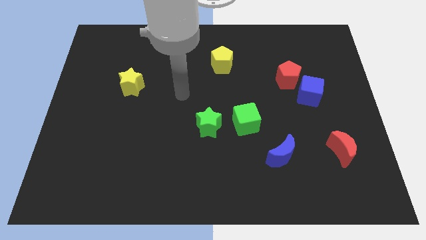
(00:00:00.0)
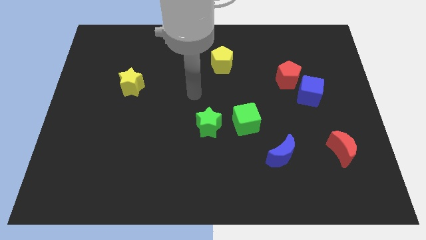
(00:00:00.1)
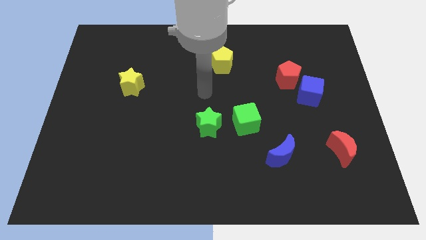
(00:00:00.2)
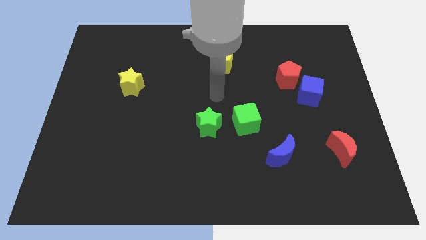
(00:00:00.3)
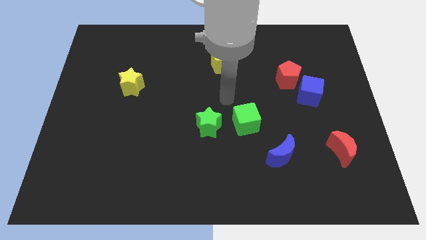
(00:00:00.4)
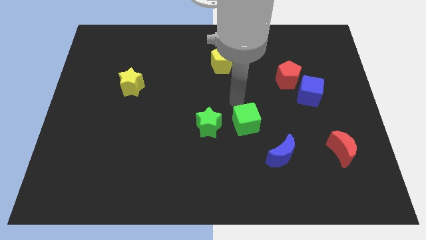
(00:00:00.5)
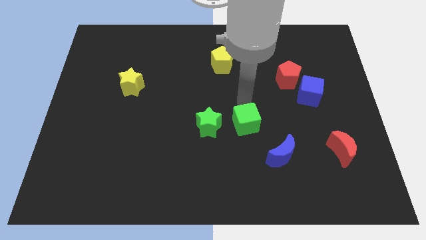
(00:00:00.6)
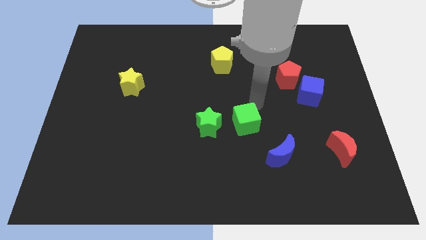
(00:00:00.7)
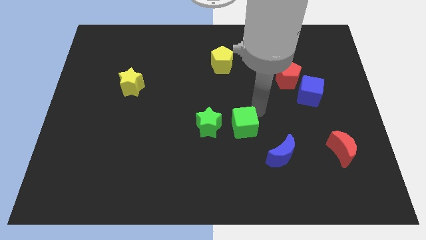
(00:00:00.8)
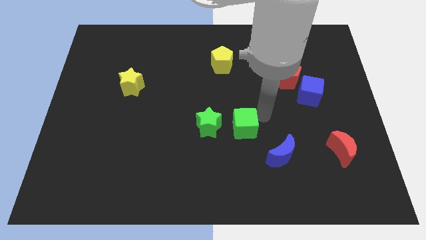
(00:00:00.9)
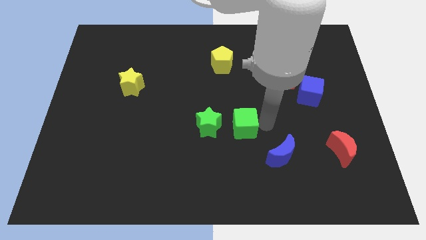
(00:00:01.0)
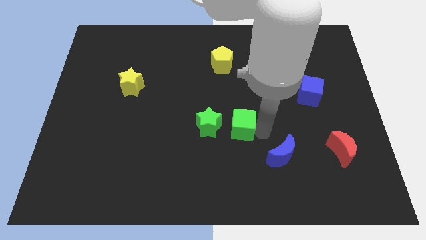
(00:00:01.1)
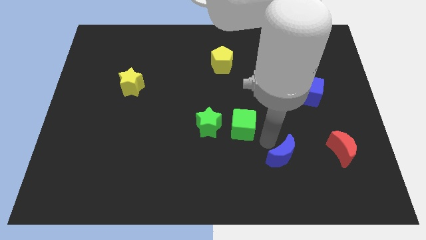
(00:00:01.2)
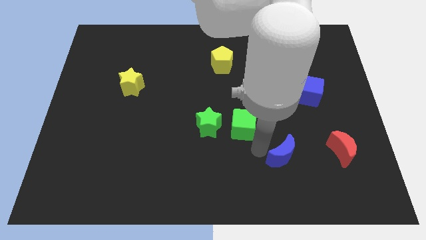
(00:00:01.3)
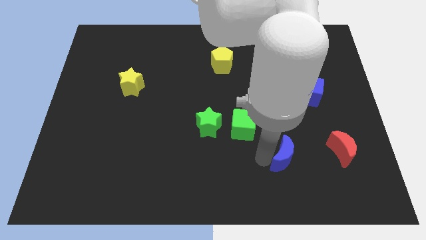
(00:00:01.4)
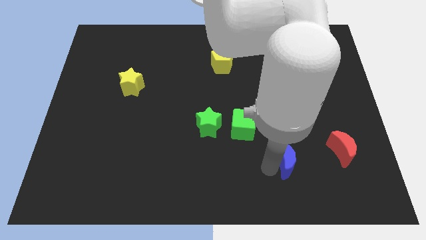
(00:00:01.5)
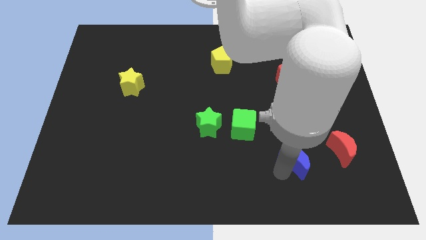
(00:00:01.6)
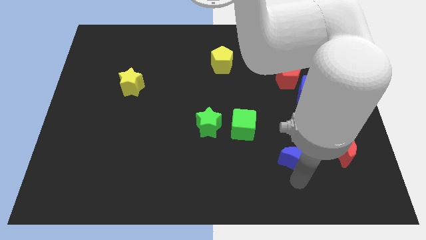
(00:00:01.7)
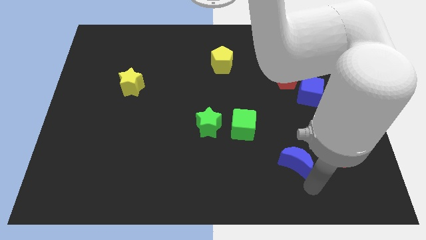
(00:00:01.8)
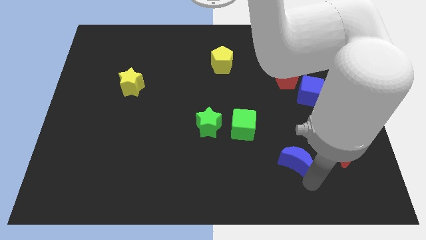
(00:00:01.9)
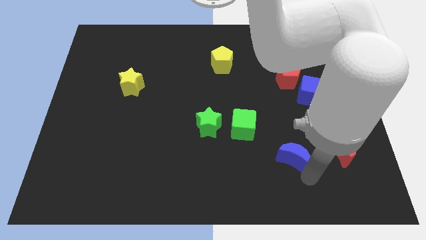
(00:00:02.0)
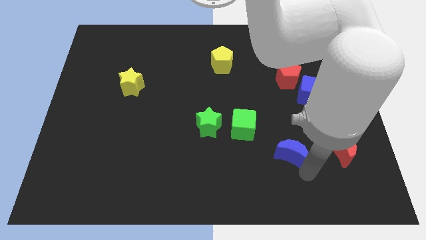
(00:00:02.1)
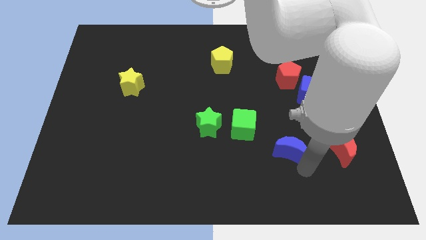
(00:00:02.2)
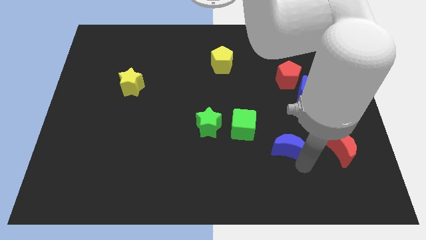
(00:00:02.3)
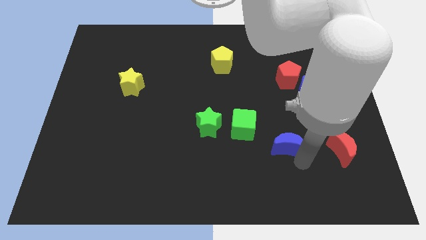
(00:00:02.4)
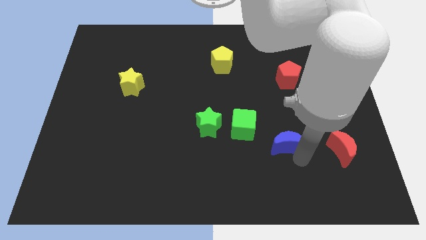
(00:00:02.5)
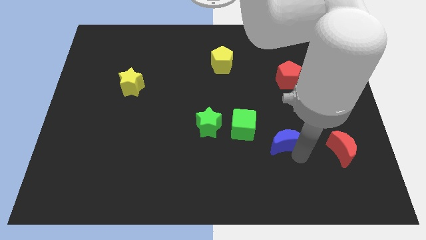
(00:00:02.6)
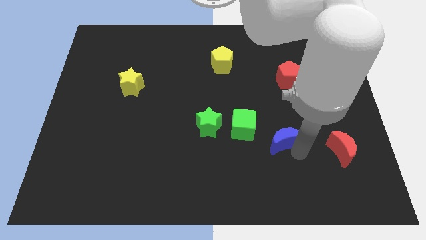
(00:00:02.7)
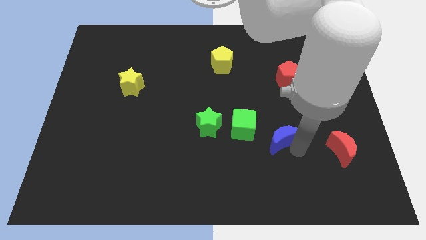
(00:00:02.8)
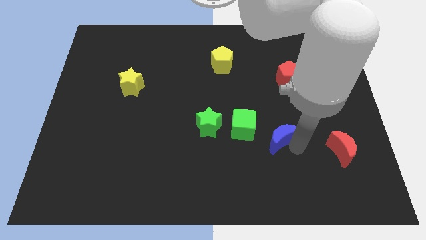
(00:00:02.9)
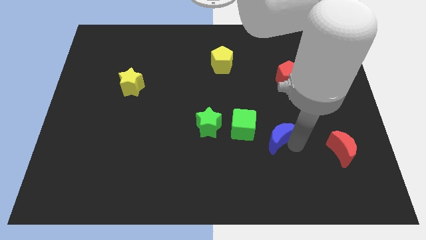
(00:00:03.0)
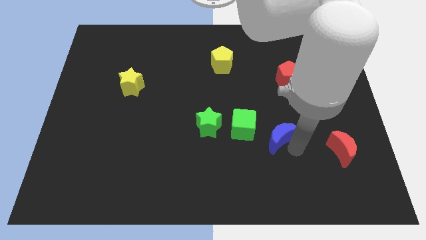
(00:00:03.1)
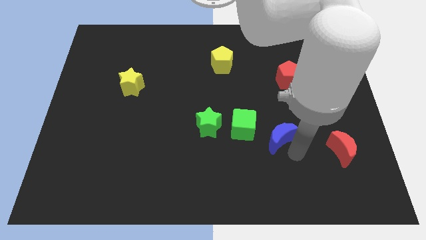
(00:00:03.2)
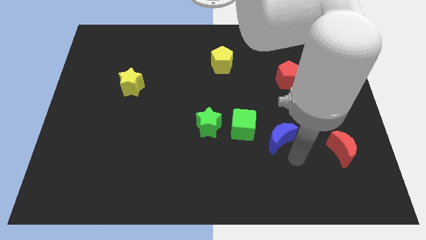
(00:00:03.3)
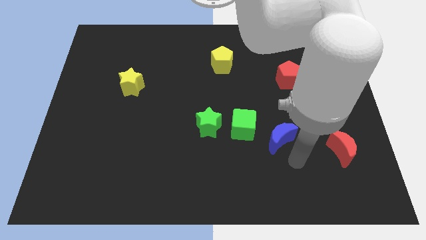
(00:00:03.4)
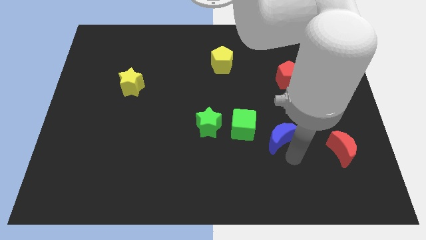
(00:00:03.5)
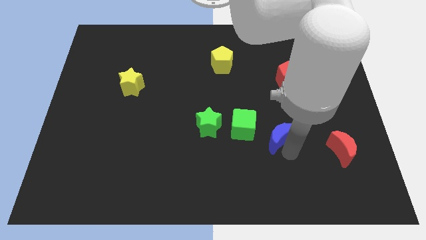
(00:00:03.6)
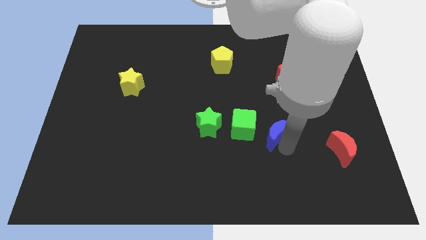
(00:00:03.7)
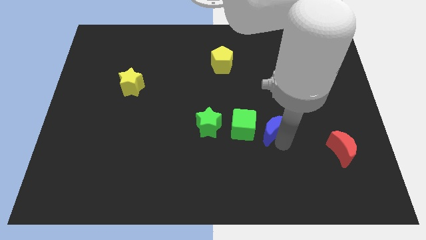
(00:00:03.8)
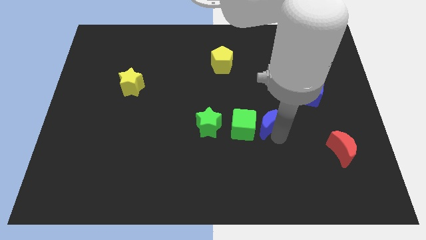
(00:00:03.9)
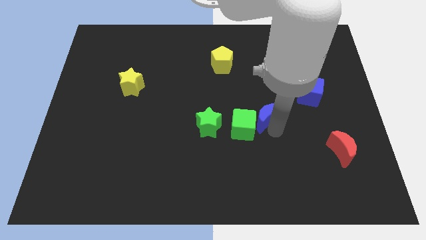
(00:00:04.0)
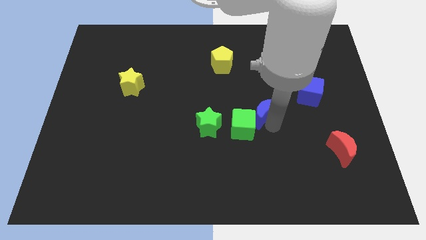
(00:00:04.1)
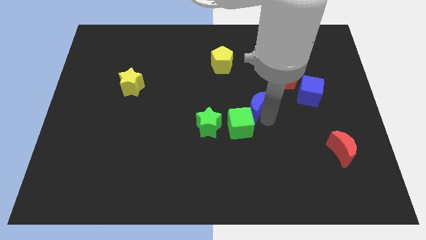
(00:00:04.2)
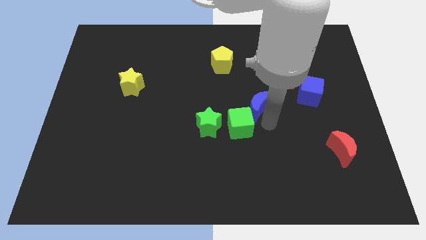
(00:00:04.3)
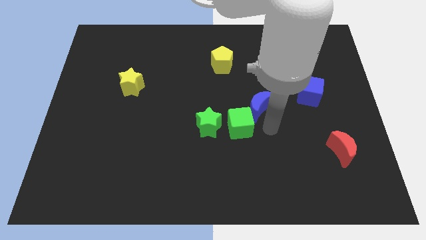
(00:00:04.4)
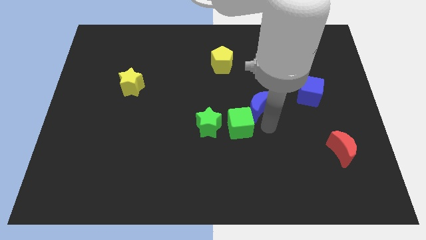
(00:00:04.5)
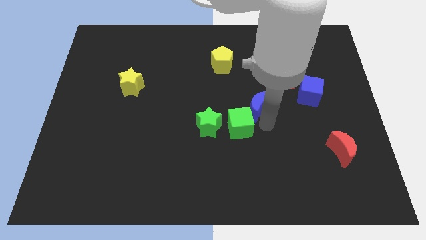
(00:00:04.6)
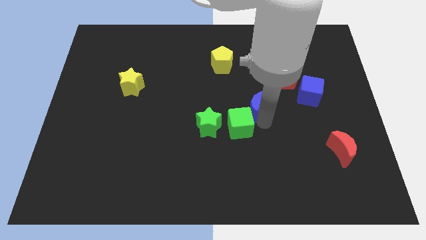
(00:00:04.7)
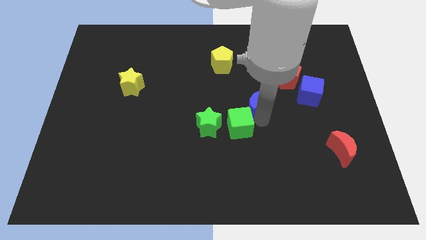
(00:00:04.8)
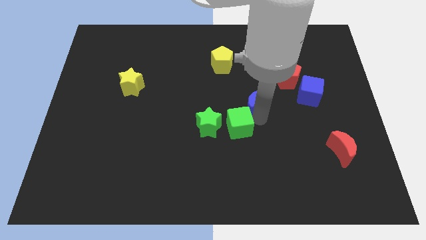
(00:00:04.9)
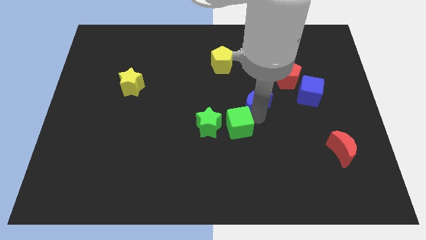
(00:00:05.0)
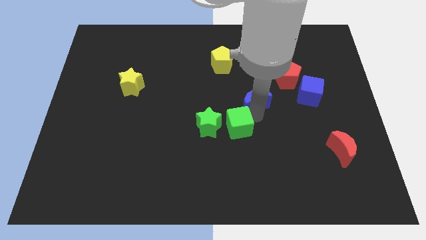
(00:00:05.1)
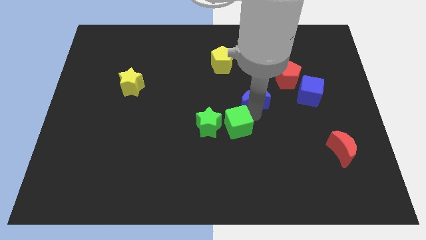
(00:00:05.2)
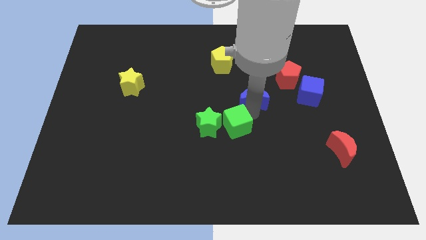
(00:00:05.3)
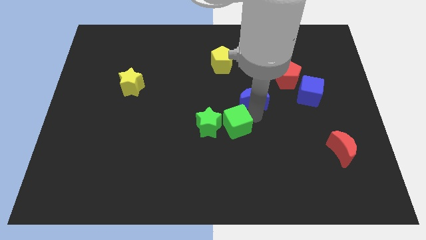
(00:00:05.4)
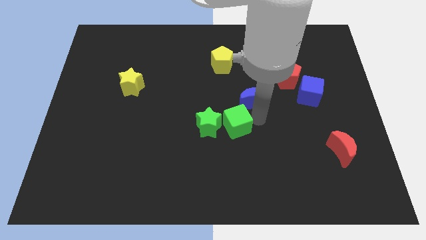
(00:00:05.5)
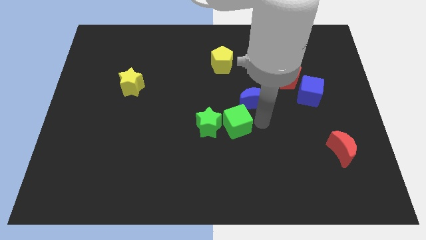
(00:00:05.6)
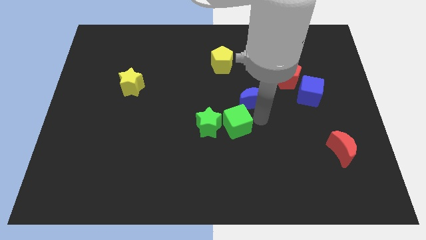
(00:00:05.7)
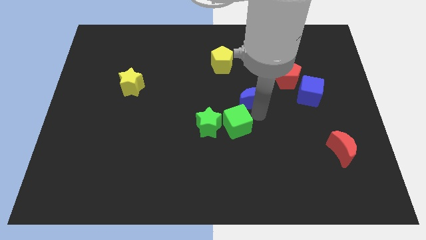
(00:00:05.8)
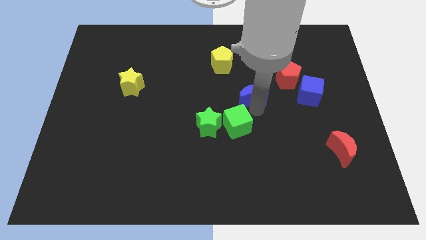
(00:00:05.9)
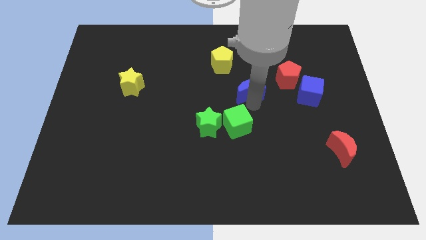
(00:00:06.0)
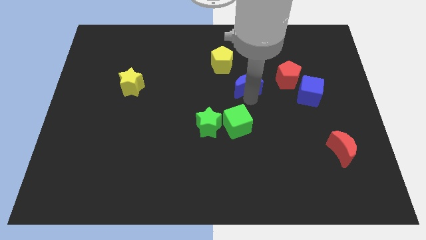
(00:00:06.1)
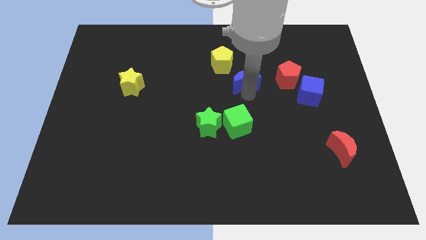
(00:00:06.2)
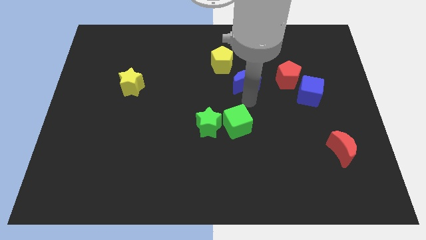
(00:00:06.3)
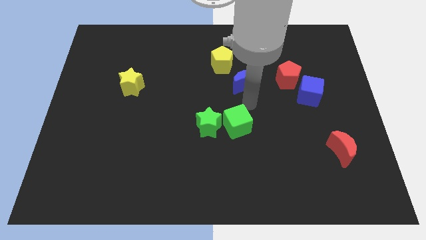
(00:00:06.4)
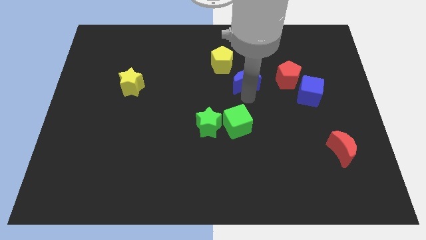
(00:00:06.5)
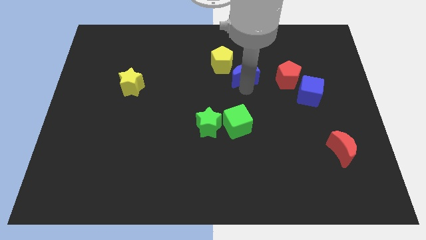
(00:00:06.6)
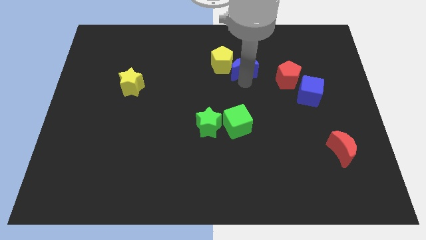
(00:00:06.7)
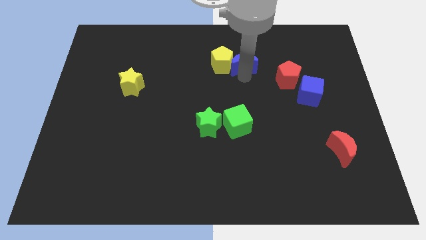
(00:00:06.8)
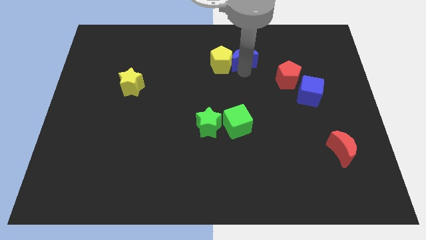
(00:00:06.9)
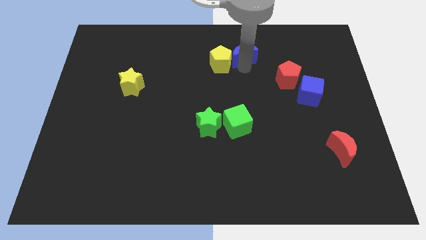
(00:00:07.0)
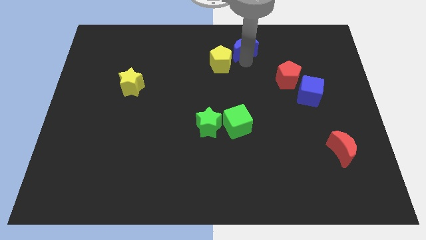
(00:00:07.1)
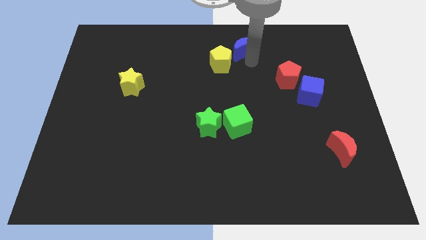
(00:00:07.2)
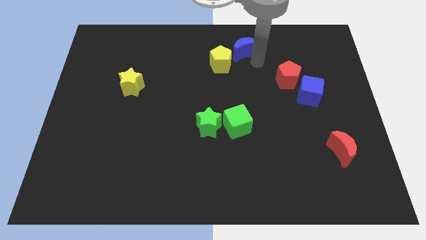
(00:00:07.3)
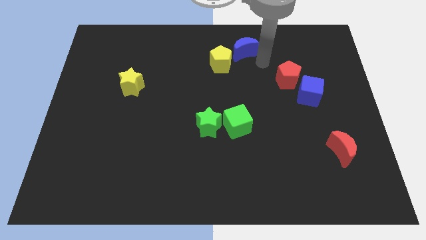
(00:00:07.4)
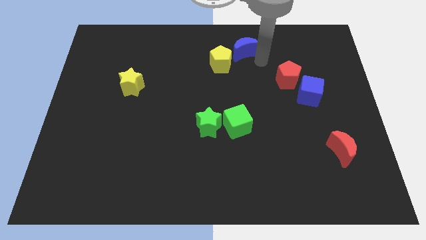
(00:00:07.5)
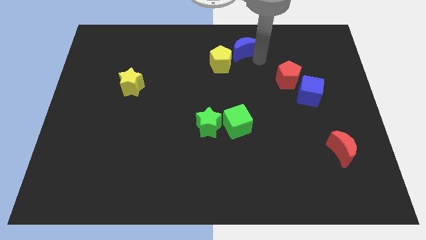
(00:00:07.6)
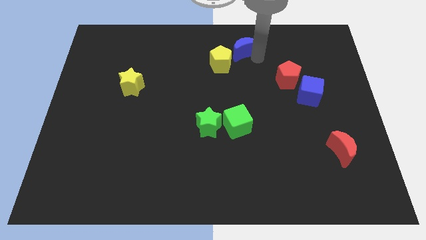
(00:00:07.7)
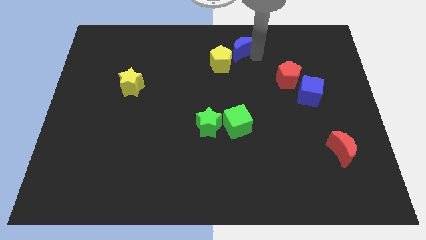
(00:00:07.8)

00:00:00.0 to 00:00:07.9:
push the blue moon to the top side
